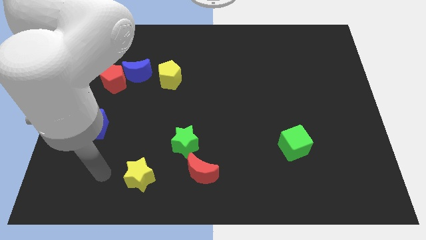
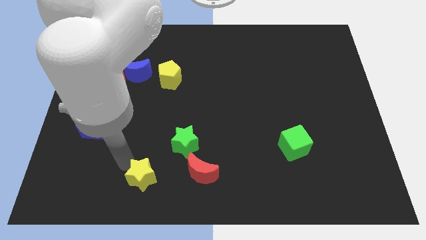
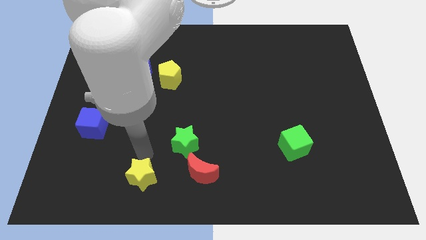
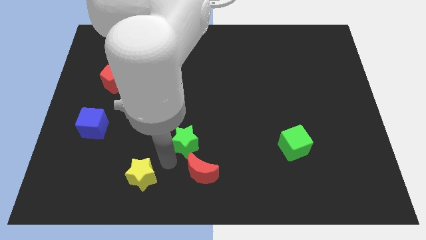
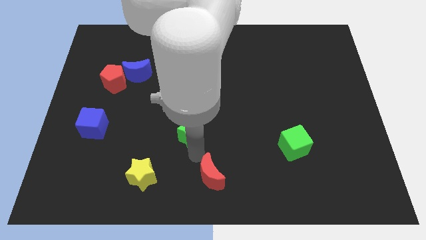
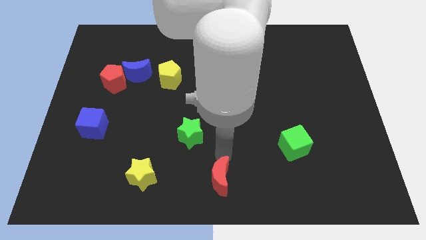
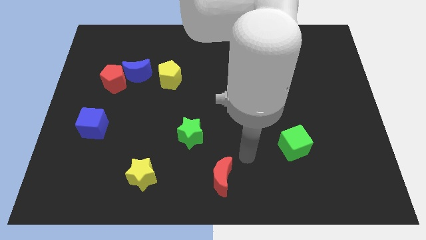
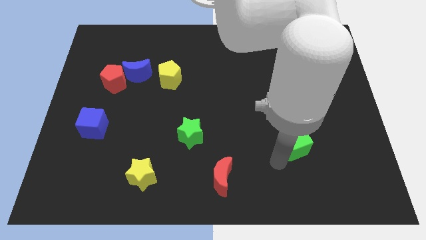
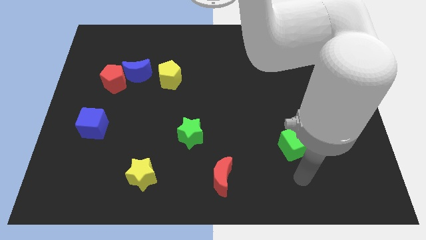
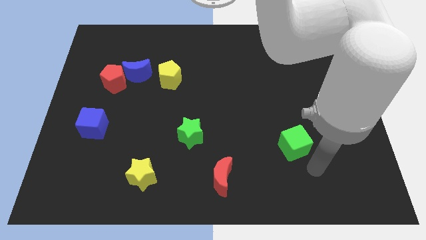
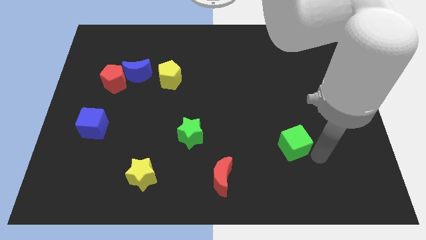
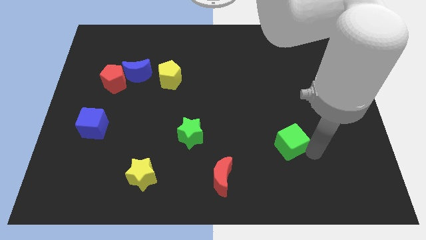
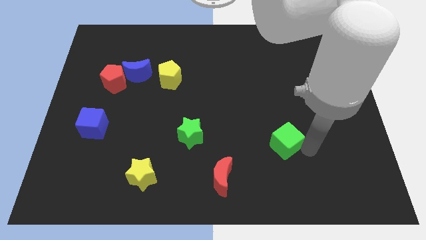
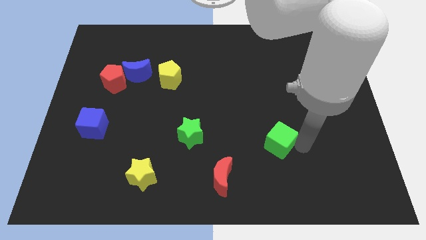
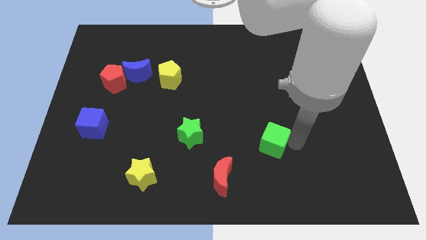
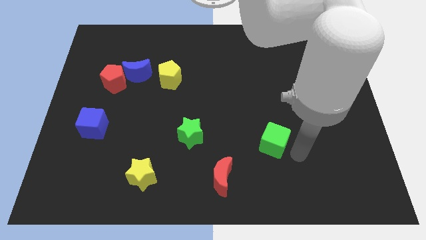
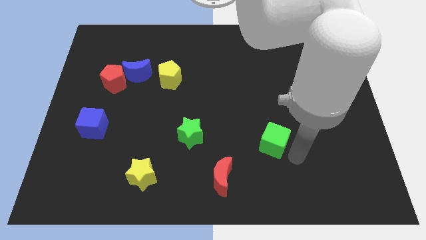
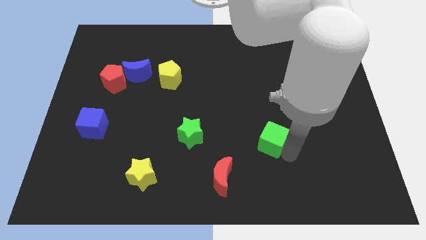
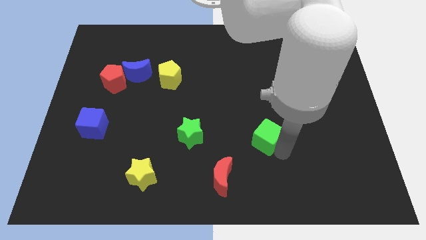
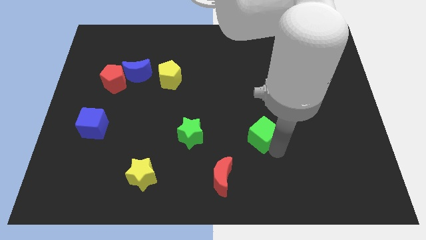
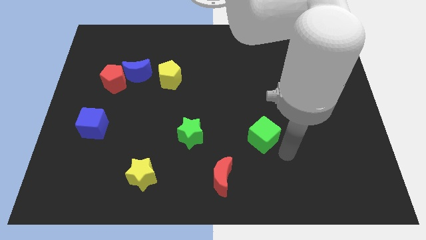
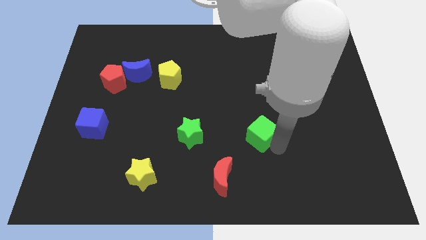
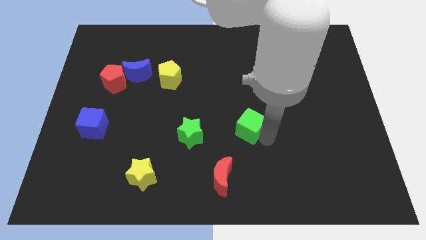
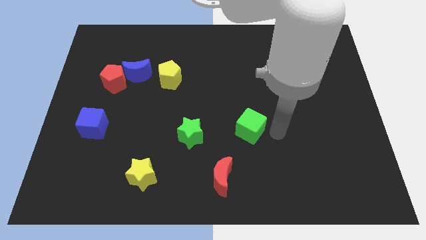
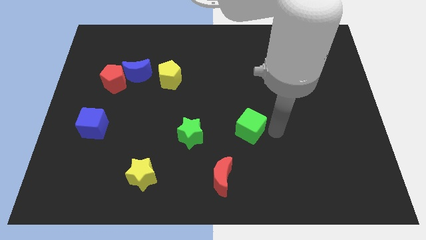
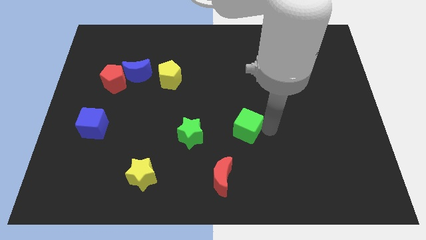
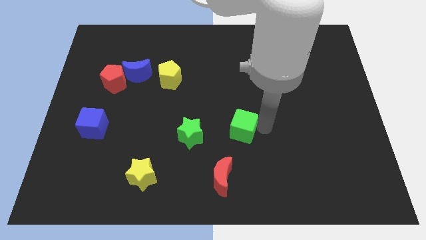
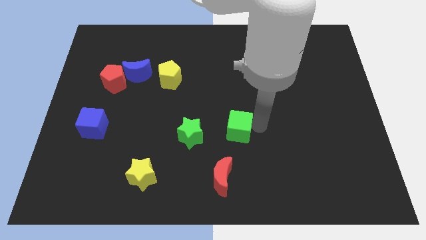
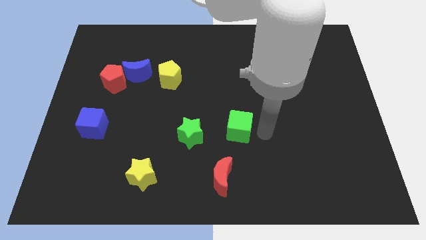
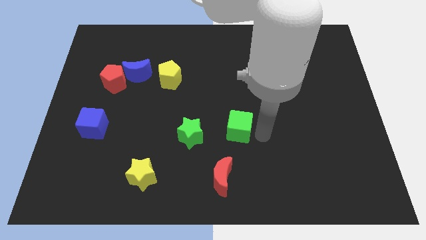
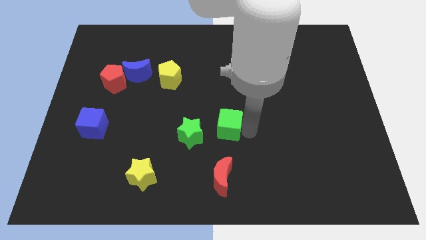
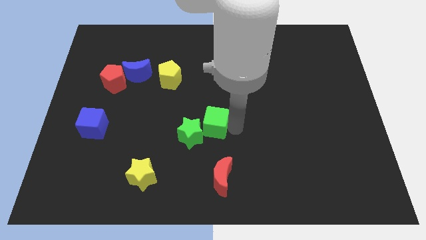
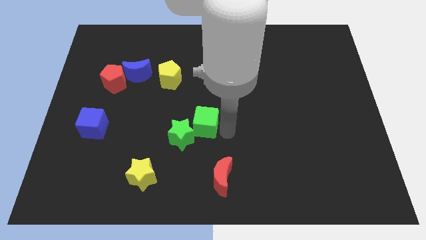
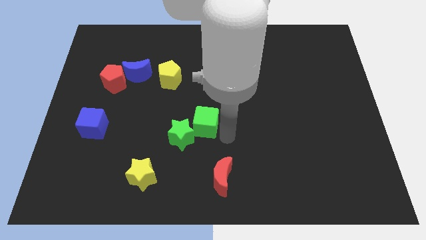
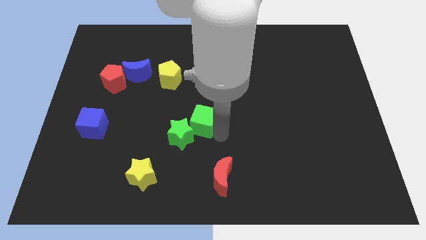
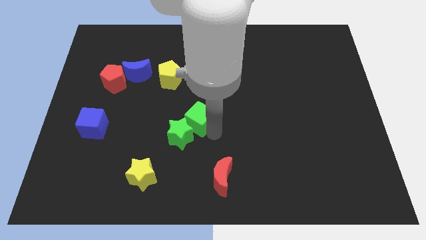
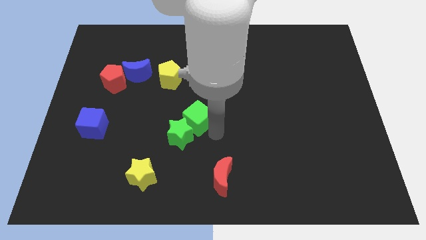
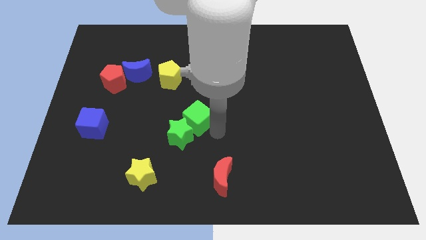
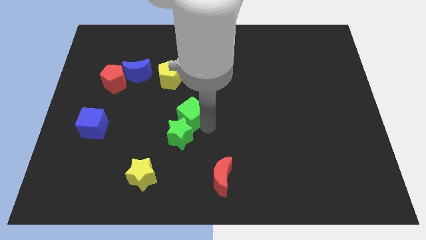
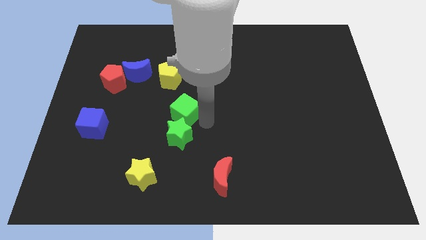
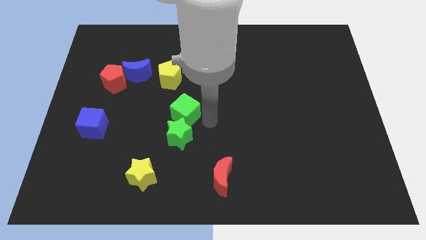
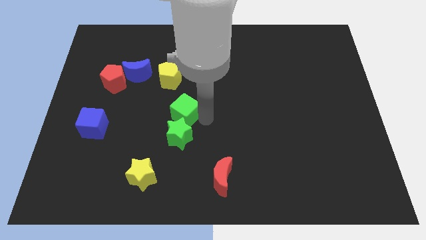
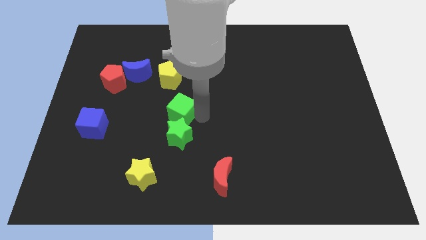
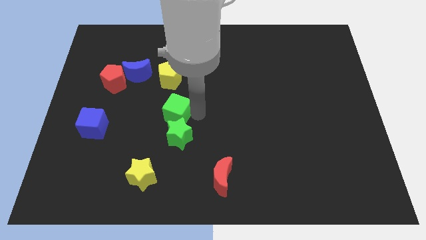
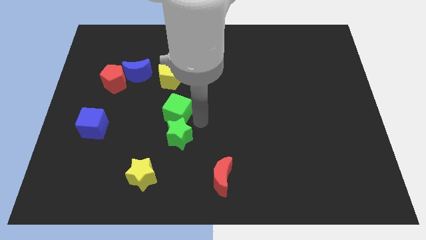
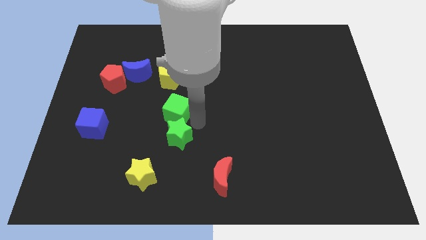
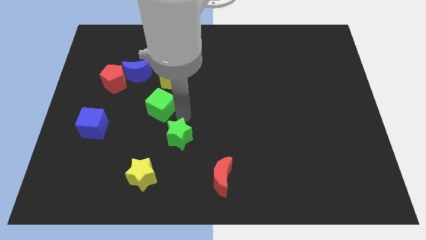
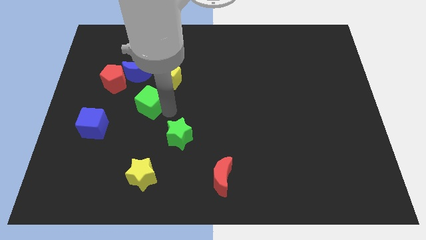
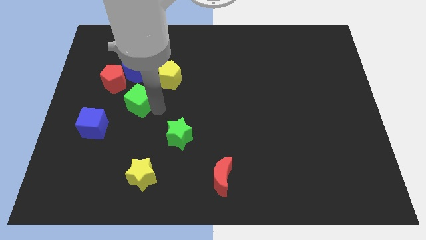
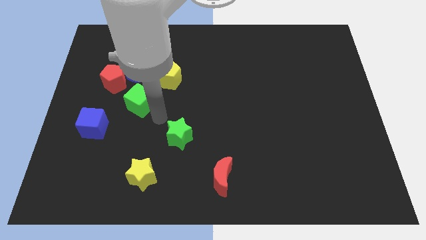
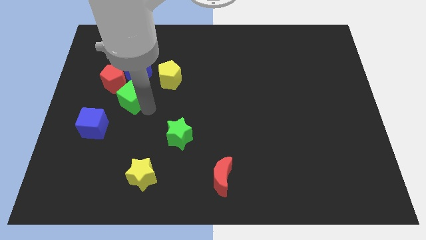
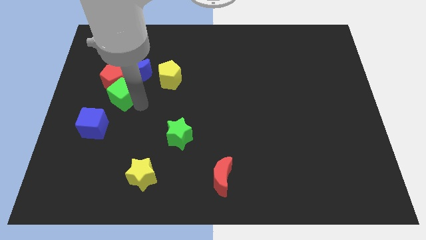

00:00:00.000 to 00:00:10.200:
move the green cube to the red pentagon

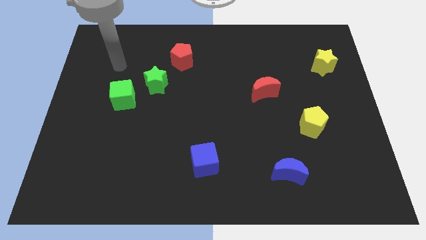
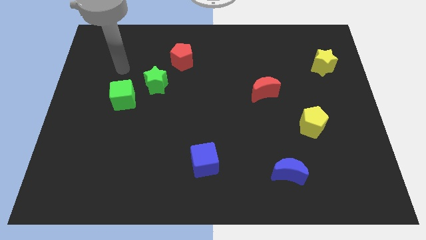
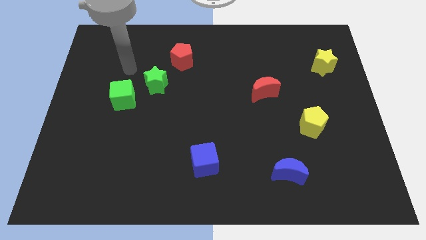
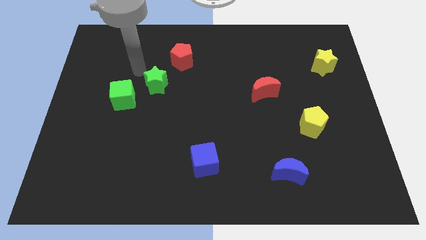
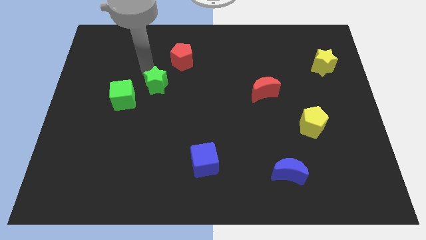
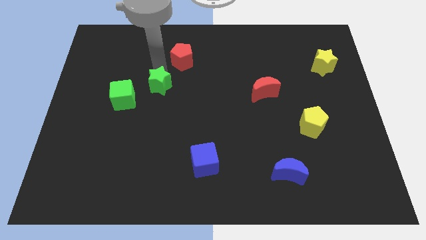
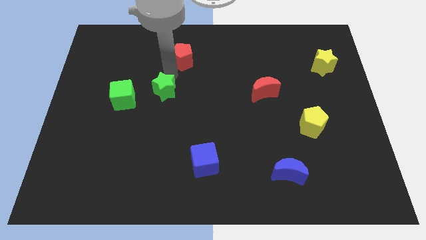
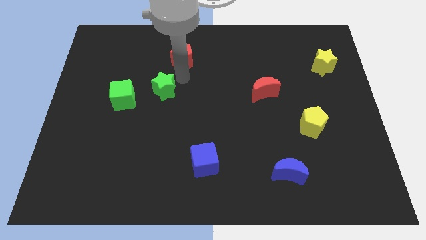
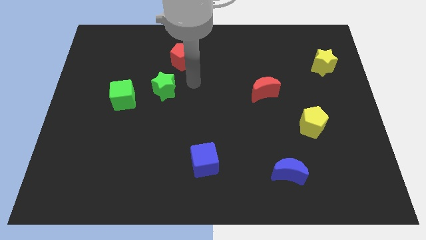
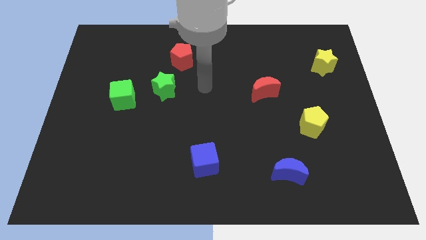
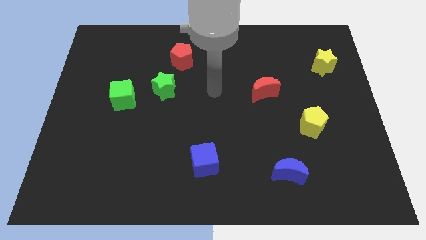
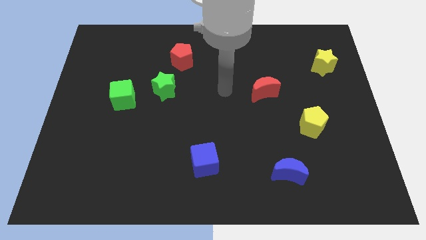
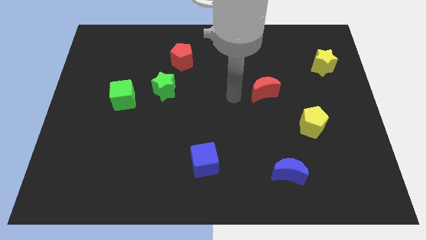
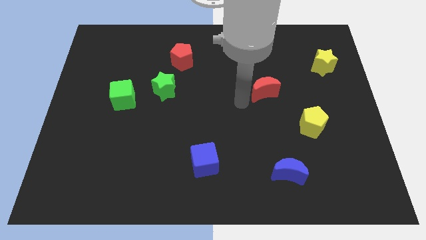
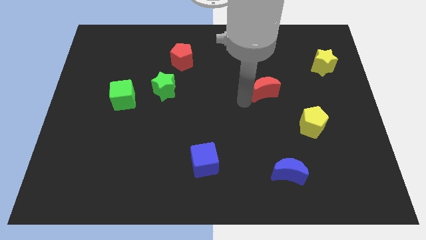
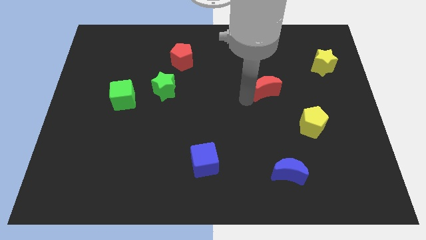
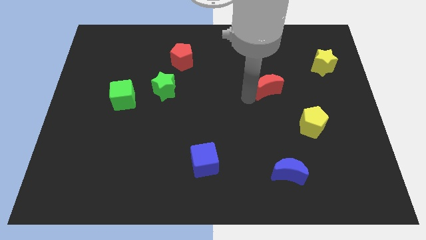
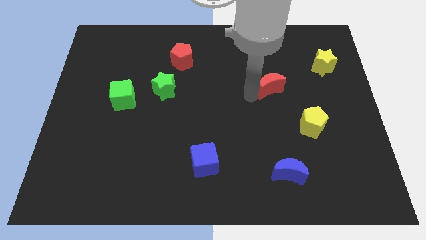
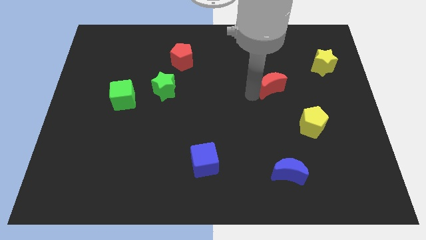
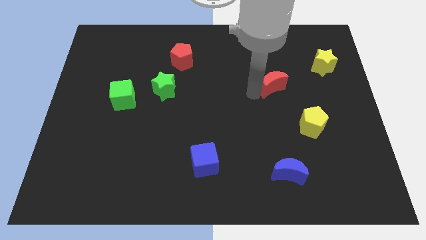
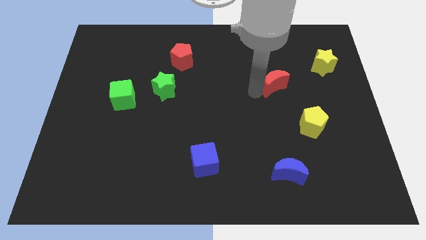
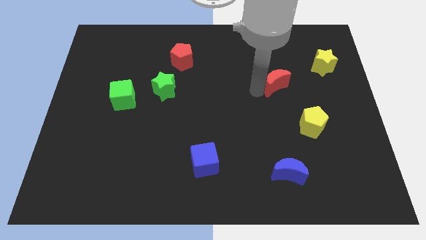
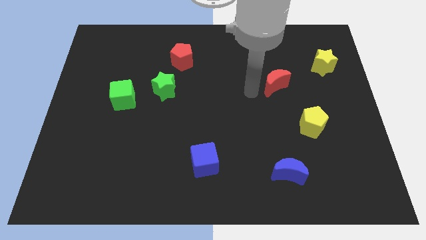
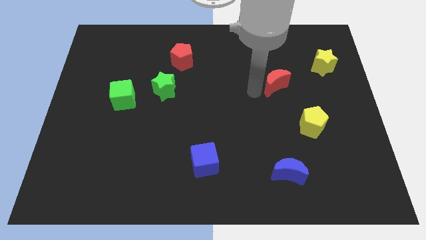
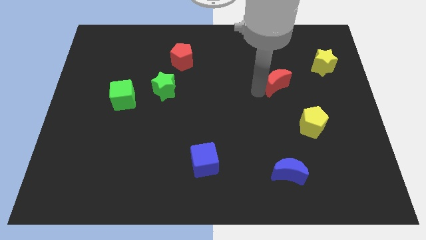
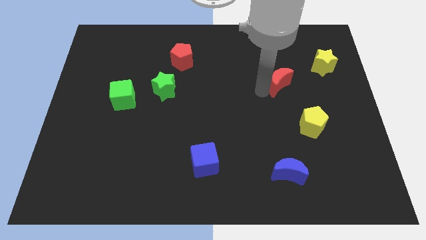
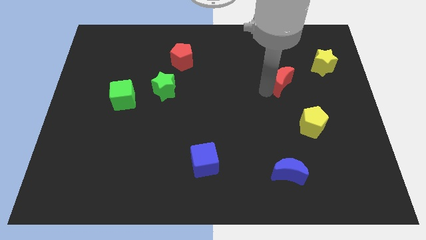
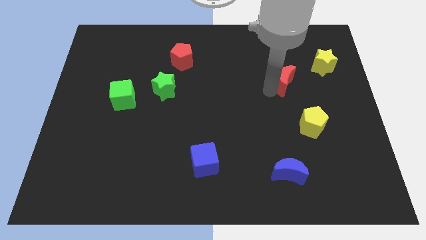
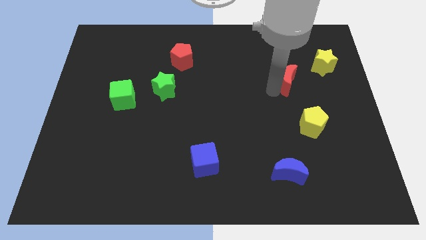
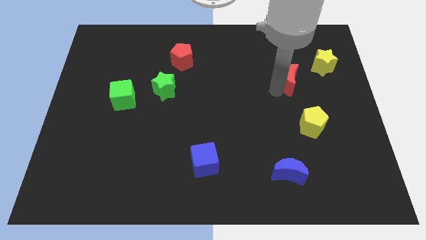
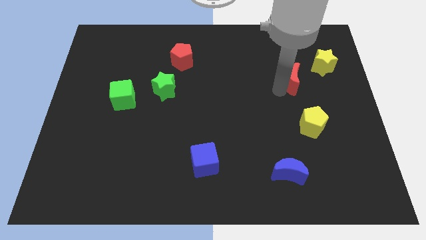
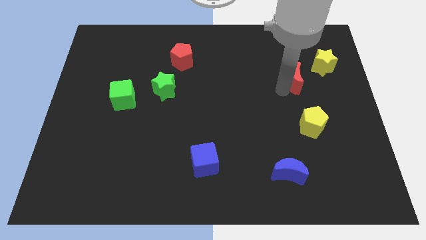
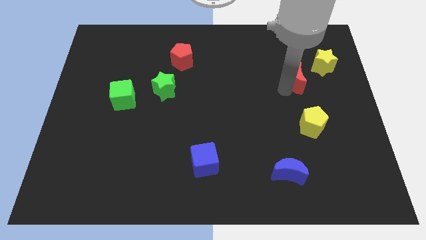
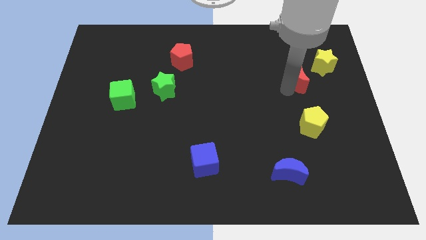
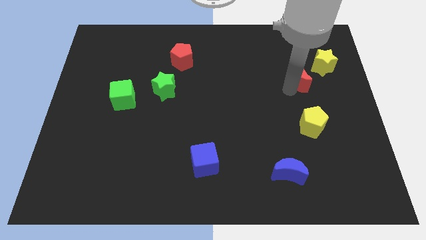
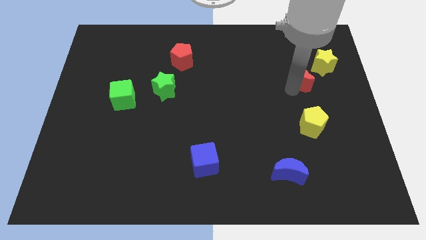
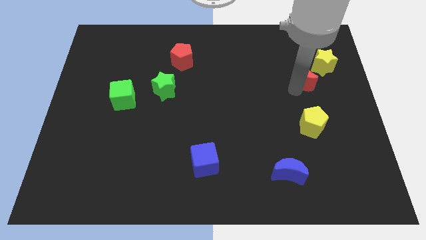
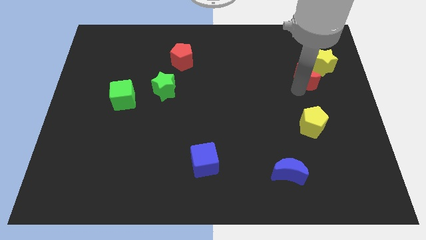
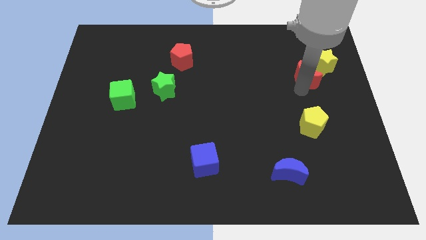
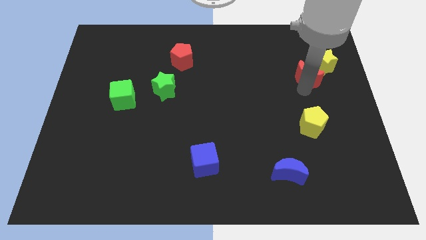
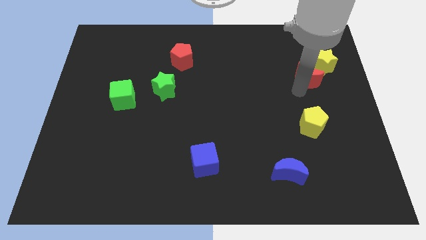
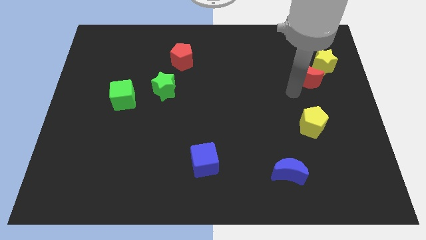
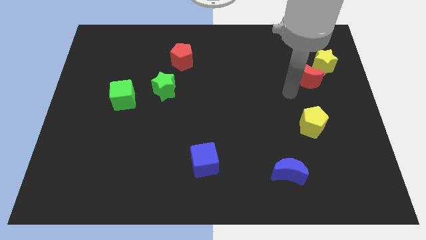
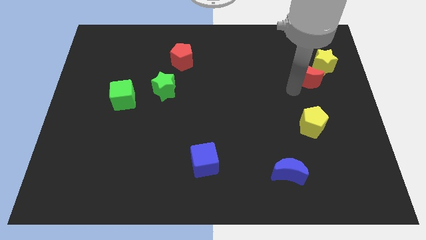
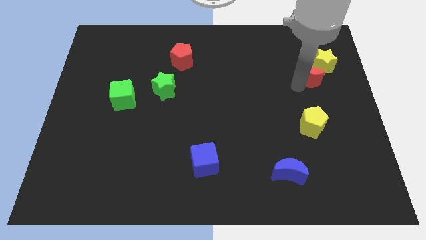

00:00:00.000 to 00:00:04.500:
put the red moon close to the yellow star
